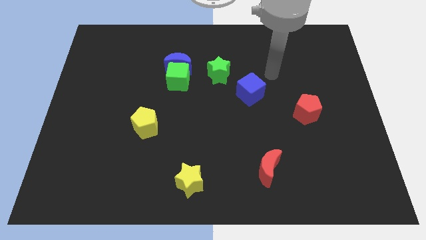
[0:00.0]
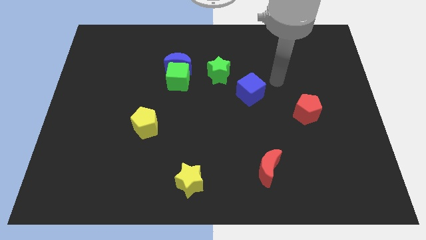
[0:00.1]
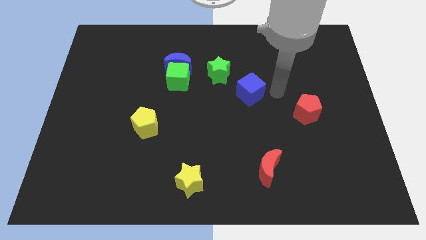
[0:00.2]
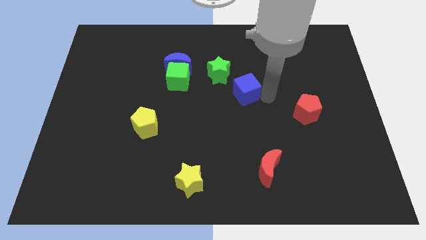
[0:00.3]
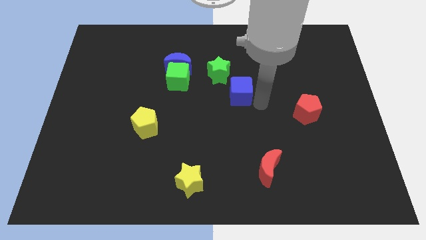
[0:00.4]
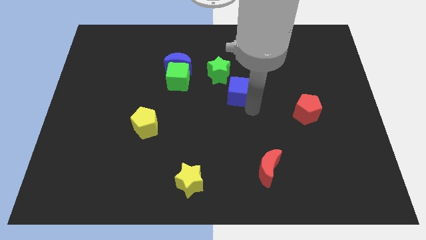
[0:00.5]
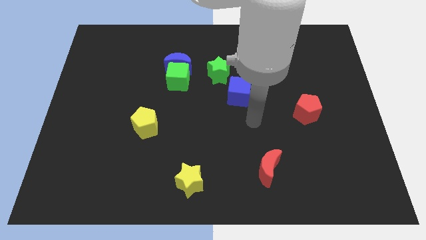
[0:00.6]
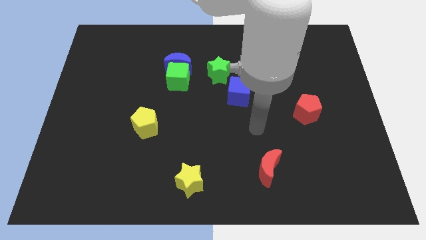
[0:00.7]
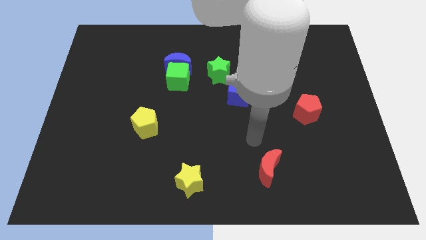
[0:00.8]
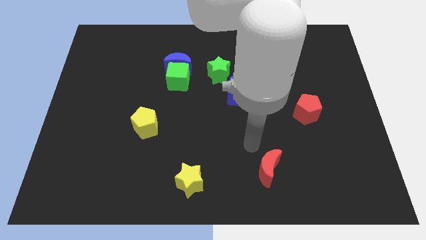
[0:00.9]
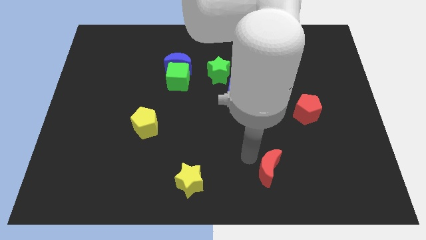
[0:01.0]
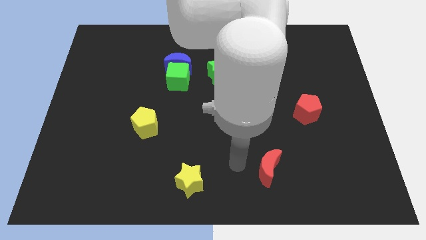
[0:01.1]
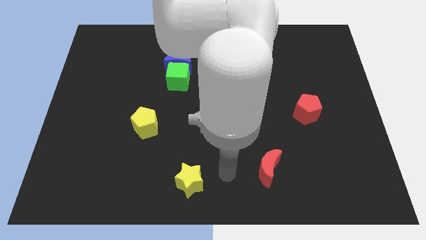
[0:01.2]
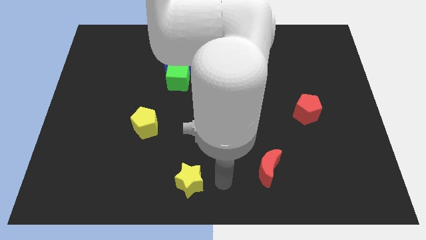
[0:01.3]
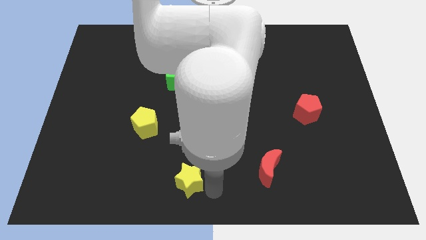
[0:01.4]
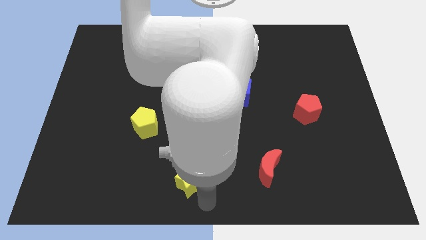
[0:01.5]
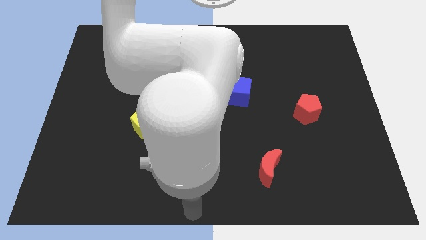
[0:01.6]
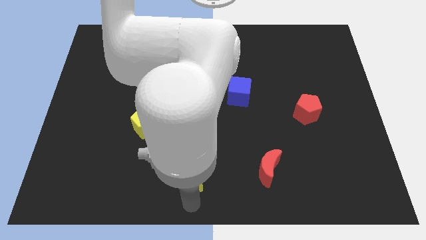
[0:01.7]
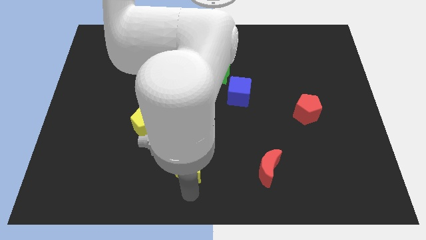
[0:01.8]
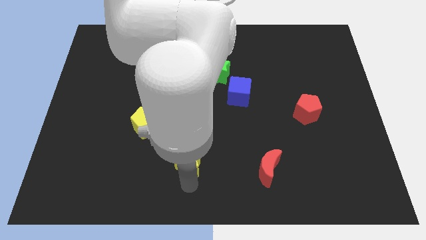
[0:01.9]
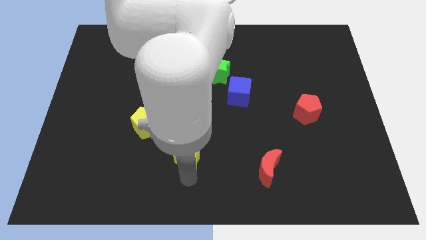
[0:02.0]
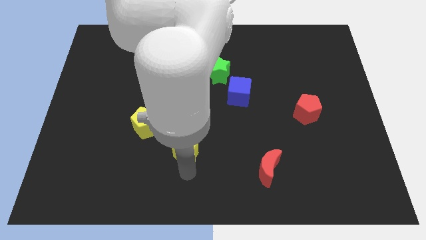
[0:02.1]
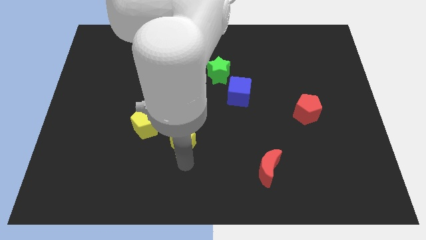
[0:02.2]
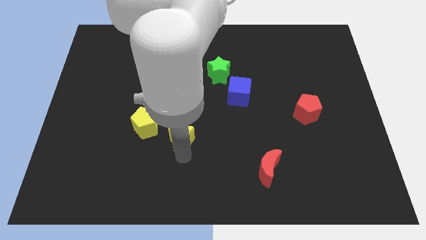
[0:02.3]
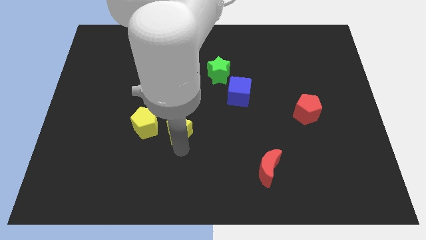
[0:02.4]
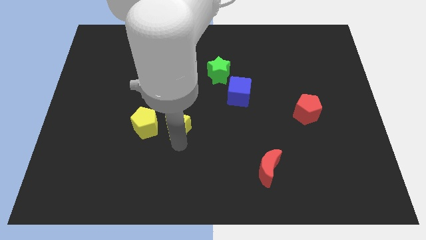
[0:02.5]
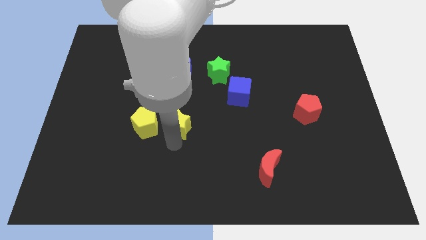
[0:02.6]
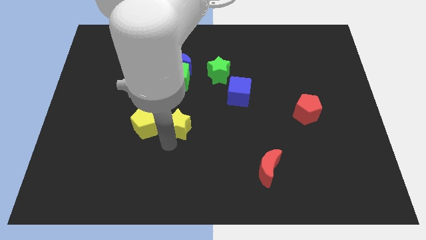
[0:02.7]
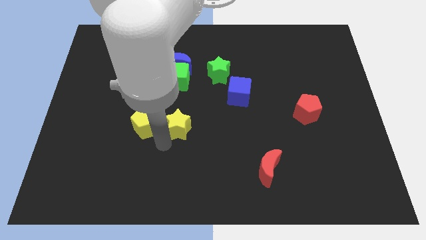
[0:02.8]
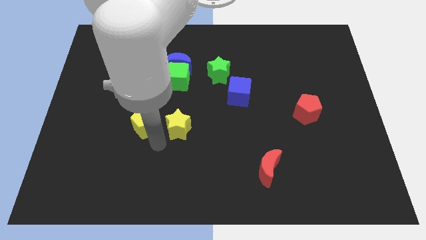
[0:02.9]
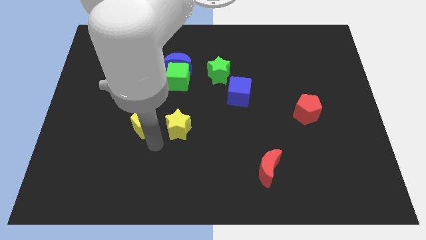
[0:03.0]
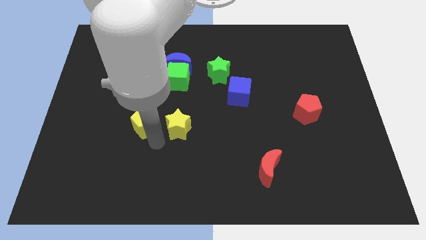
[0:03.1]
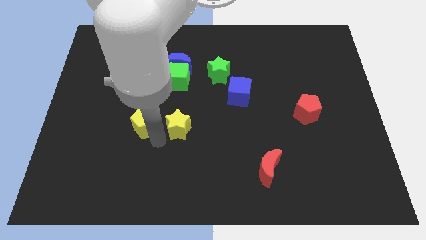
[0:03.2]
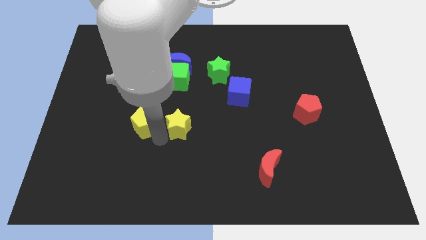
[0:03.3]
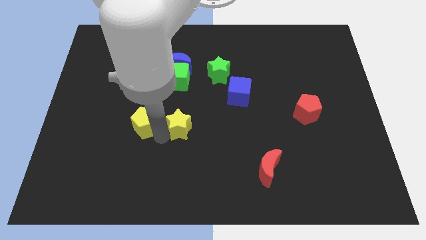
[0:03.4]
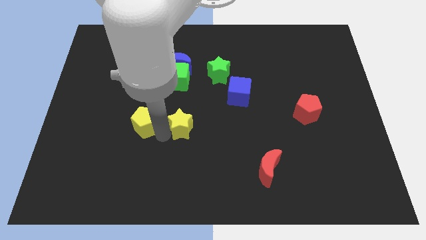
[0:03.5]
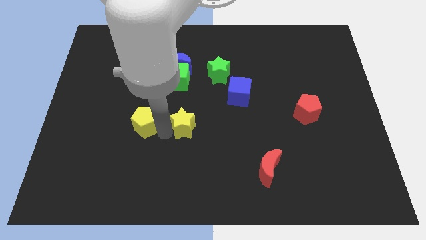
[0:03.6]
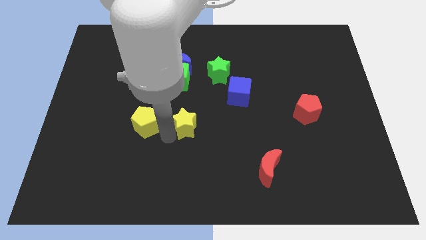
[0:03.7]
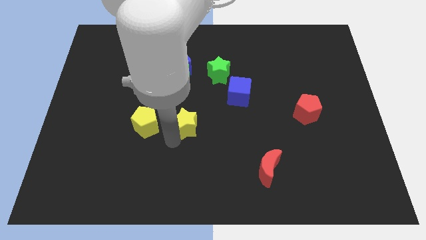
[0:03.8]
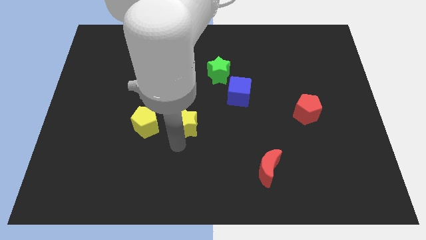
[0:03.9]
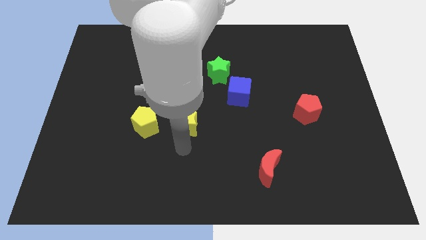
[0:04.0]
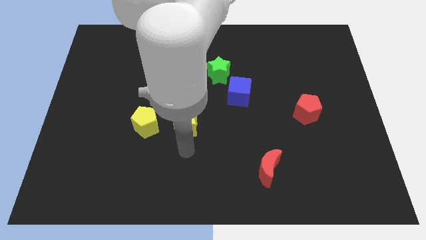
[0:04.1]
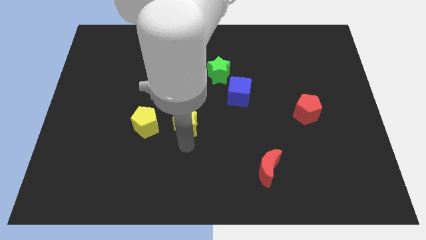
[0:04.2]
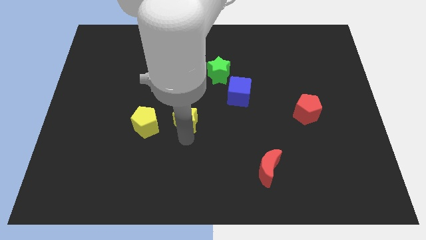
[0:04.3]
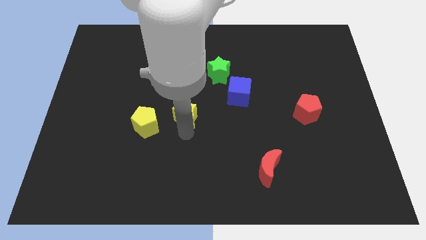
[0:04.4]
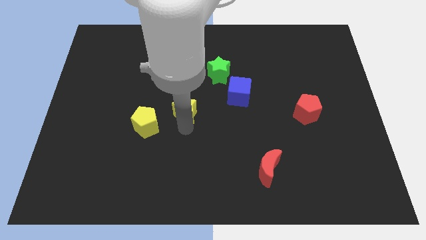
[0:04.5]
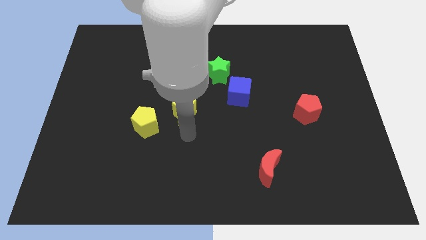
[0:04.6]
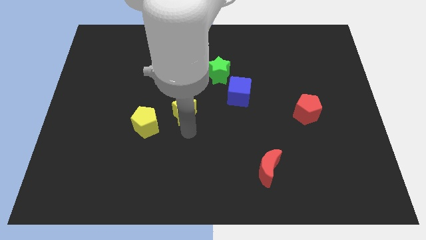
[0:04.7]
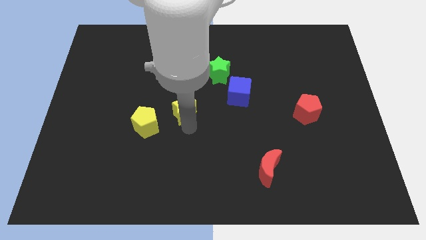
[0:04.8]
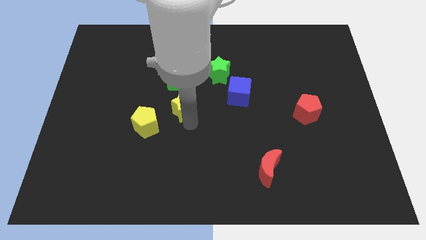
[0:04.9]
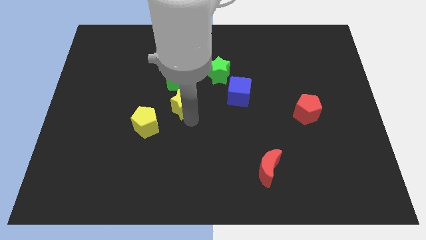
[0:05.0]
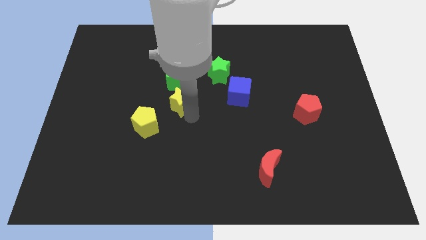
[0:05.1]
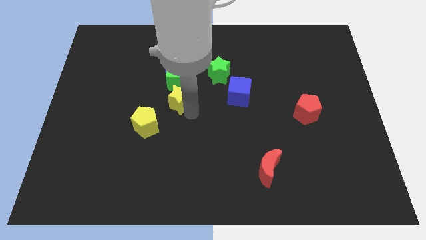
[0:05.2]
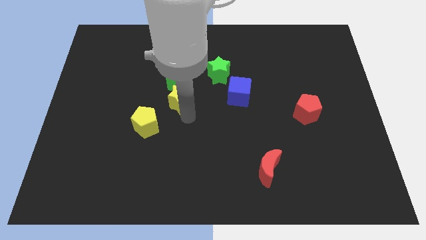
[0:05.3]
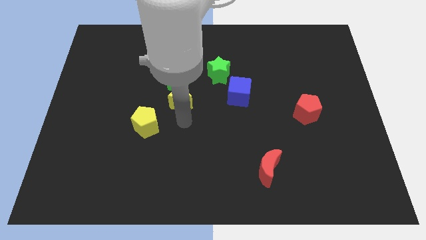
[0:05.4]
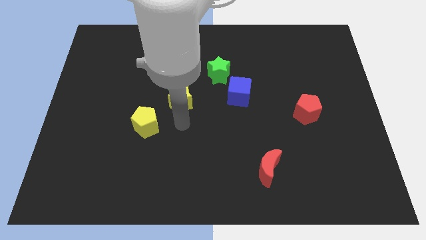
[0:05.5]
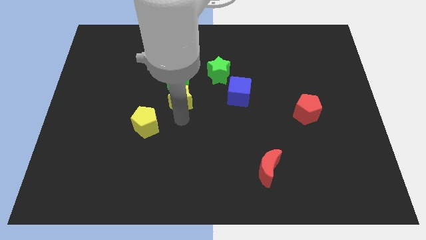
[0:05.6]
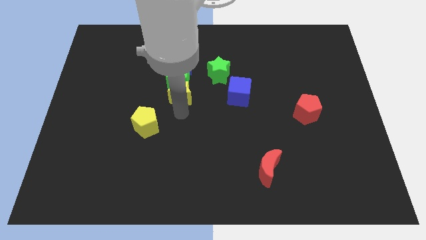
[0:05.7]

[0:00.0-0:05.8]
put the yellow star next to the green cube

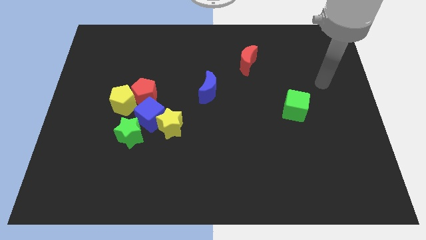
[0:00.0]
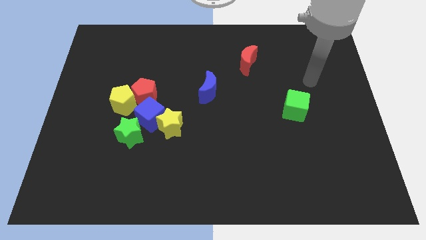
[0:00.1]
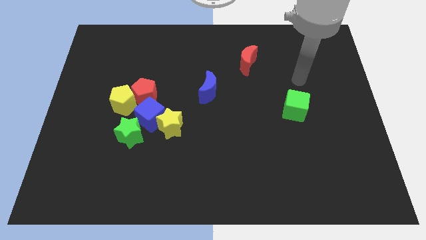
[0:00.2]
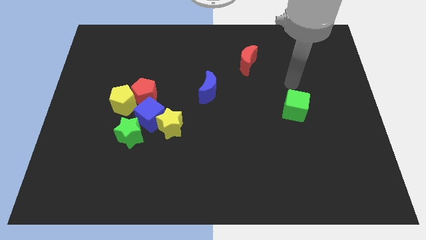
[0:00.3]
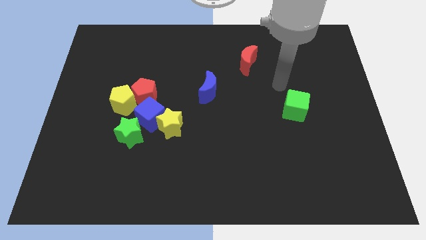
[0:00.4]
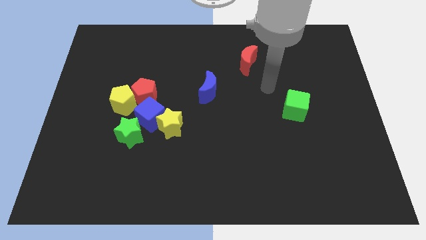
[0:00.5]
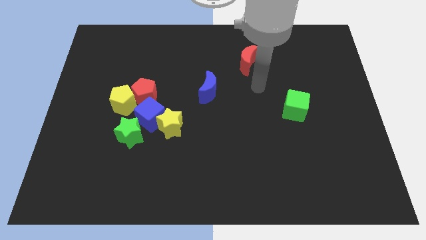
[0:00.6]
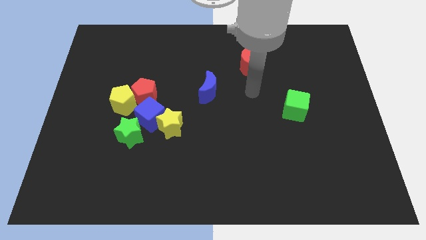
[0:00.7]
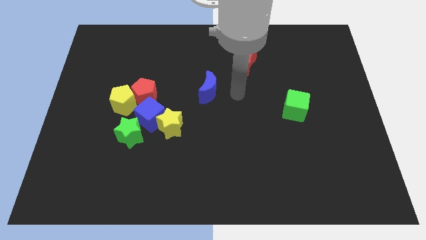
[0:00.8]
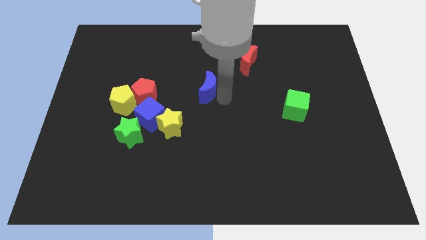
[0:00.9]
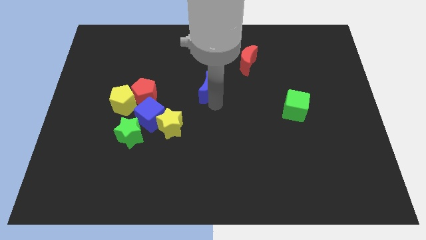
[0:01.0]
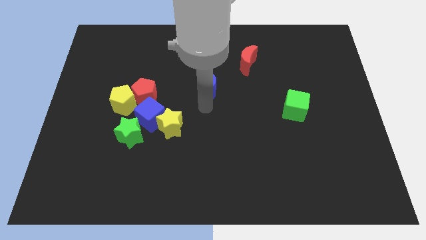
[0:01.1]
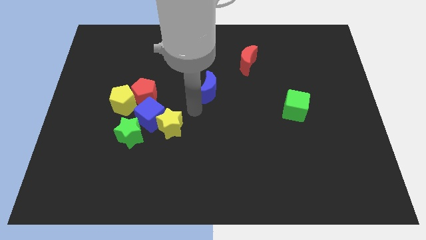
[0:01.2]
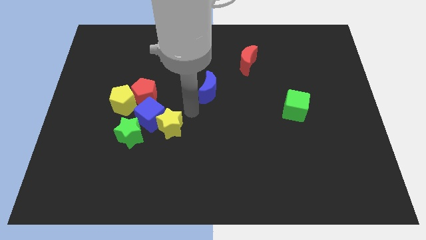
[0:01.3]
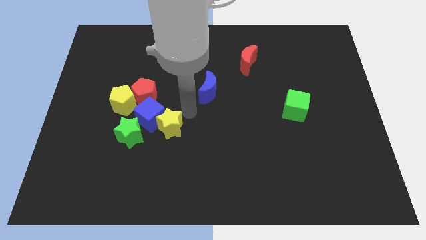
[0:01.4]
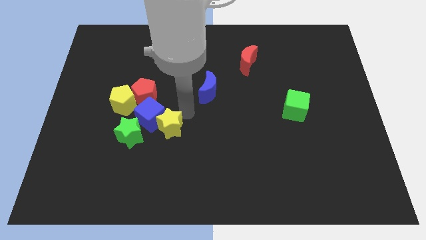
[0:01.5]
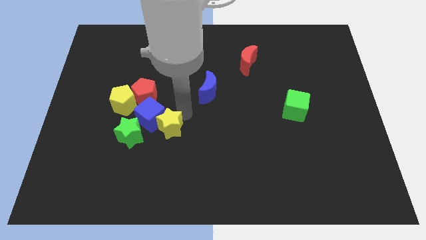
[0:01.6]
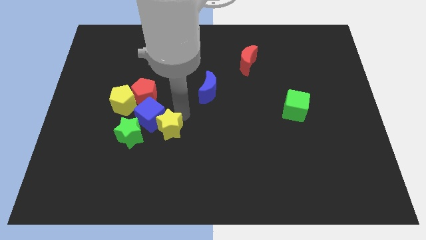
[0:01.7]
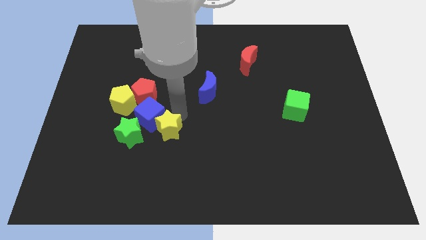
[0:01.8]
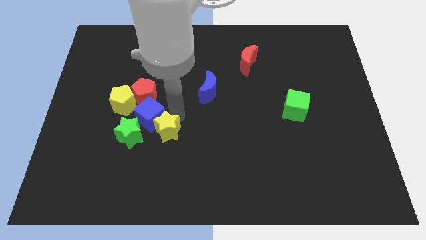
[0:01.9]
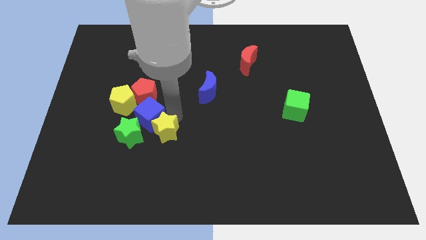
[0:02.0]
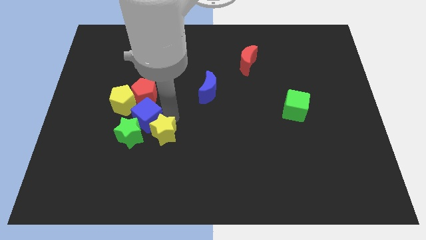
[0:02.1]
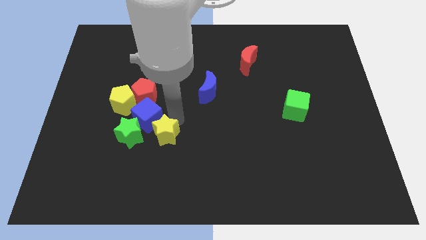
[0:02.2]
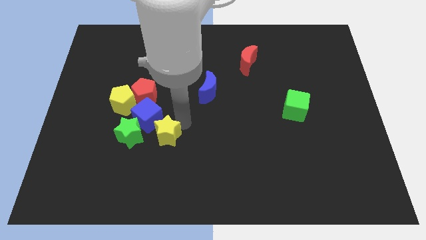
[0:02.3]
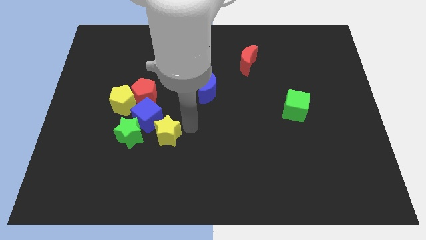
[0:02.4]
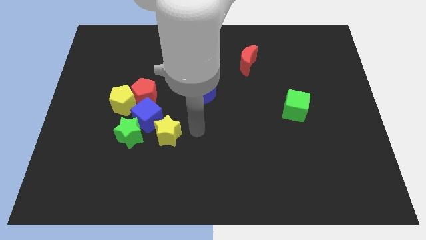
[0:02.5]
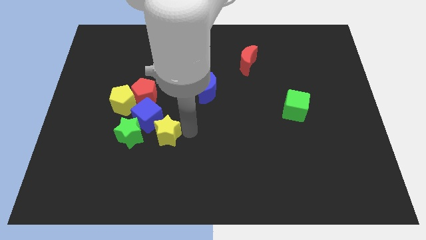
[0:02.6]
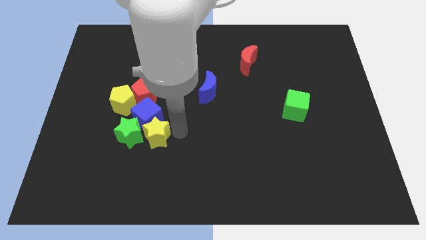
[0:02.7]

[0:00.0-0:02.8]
put the yellow star close to the green star
